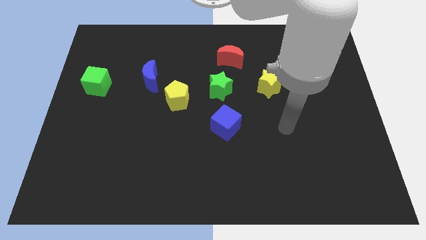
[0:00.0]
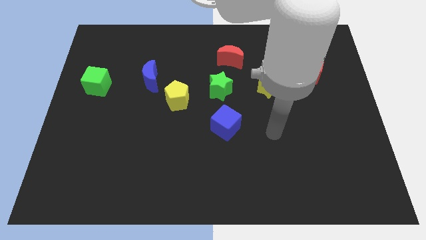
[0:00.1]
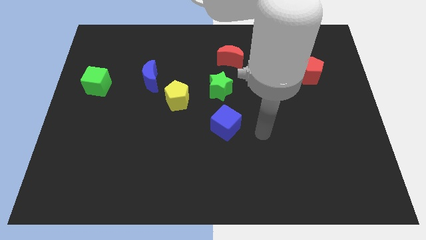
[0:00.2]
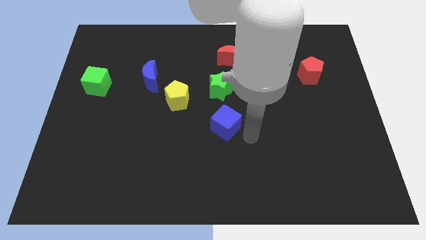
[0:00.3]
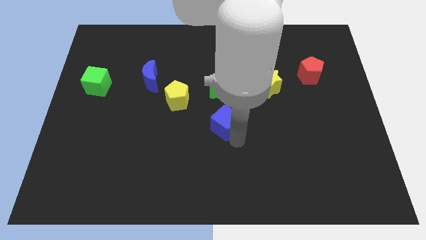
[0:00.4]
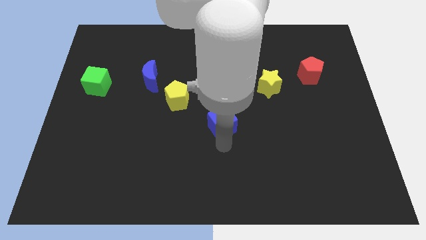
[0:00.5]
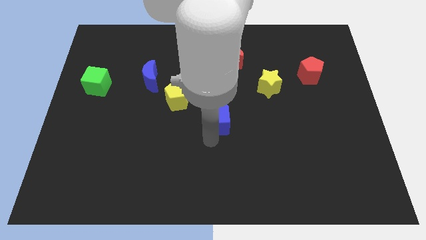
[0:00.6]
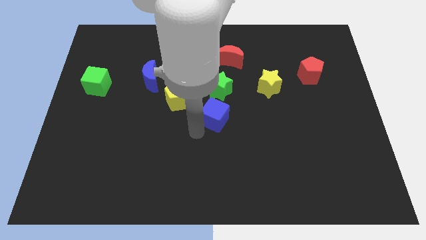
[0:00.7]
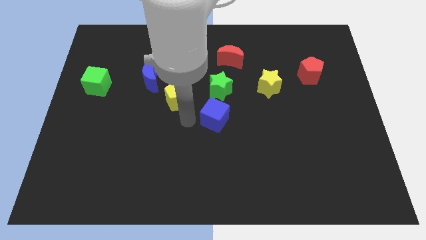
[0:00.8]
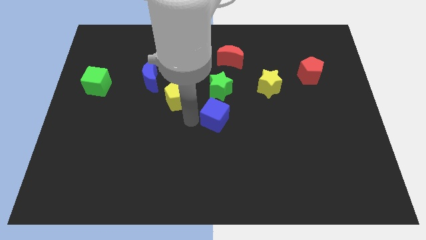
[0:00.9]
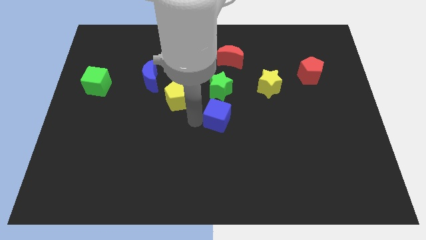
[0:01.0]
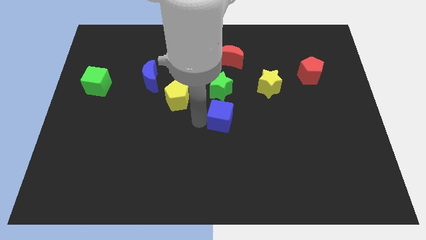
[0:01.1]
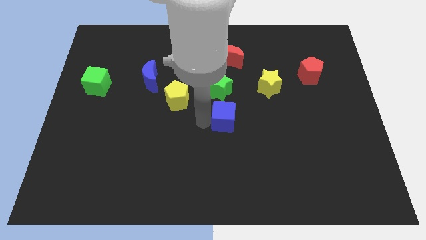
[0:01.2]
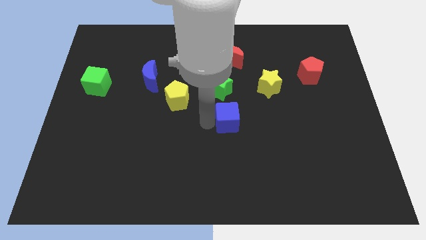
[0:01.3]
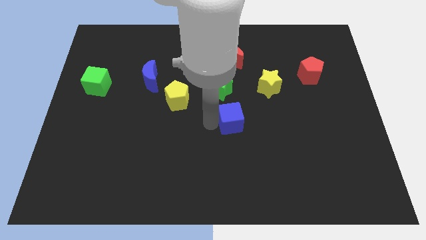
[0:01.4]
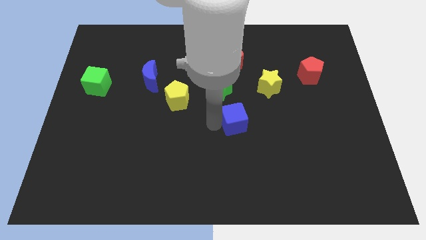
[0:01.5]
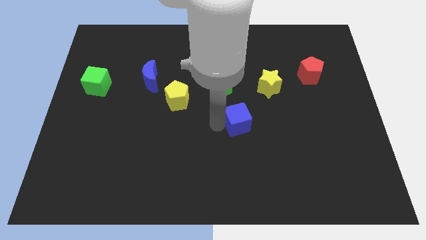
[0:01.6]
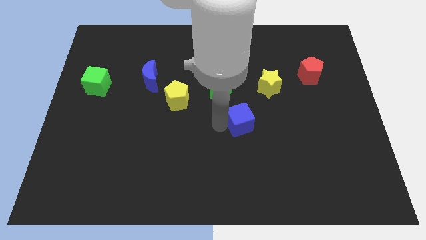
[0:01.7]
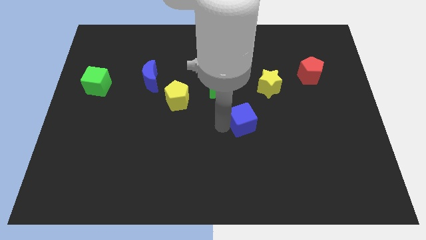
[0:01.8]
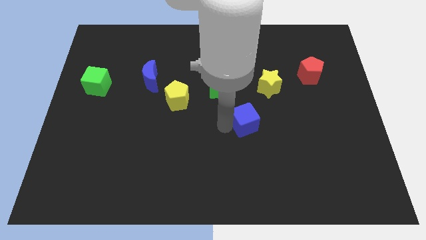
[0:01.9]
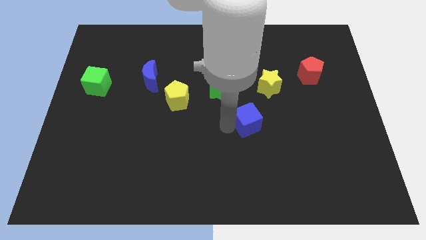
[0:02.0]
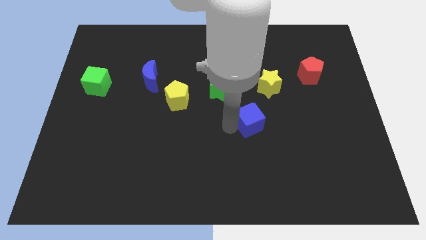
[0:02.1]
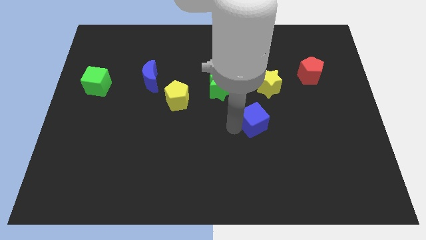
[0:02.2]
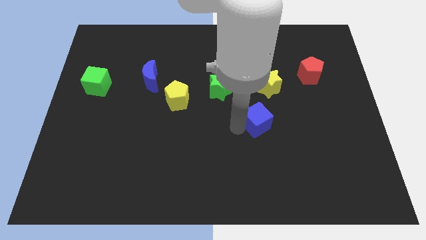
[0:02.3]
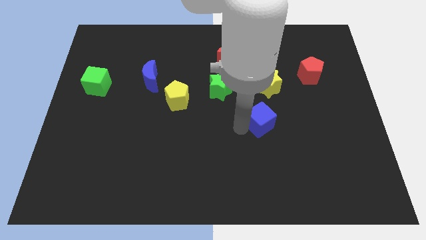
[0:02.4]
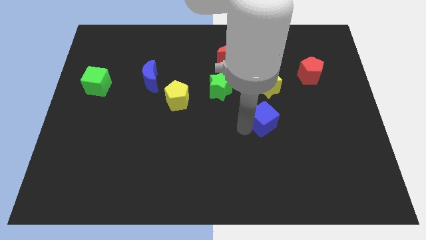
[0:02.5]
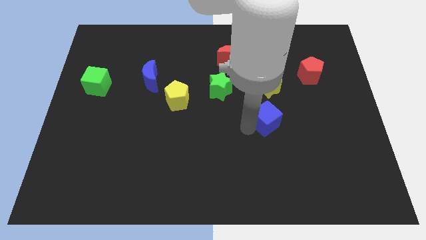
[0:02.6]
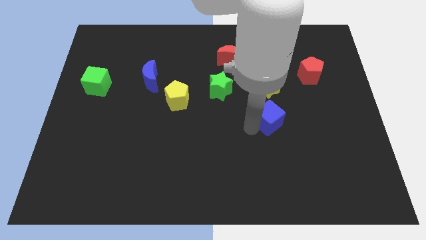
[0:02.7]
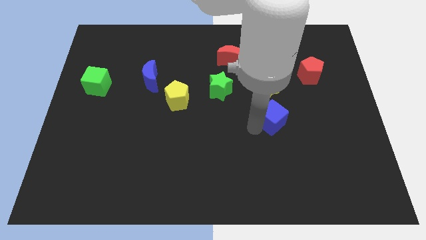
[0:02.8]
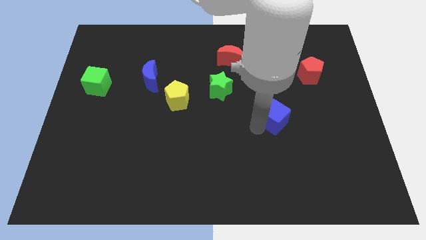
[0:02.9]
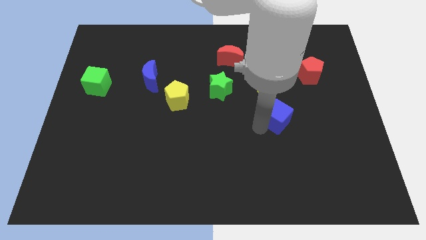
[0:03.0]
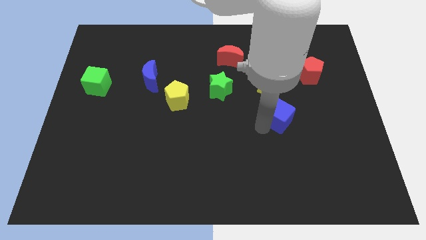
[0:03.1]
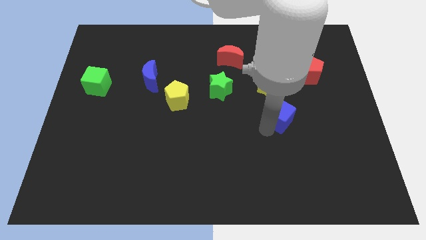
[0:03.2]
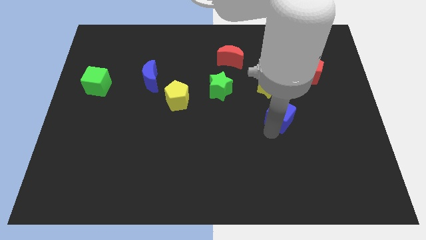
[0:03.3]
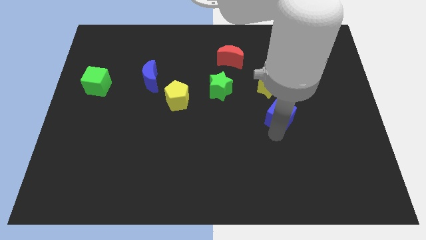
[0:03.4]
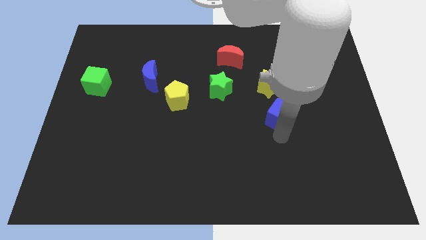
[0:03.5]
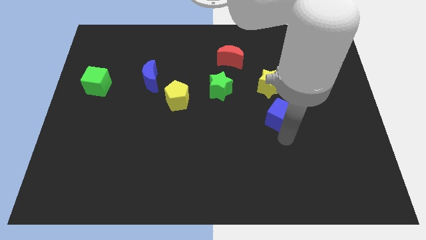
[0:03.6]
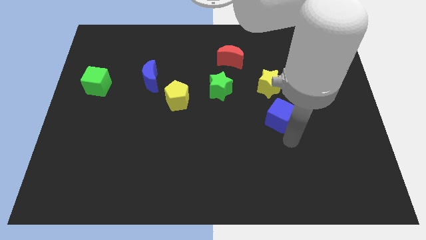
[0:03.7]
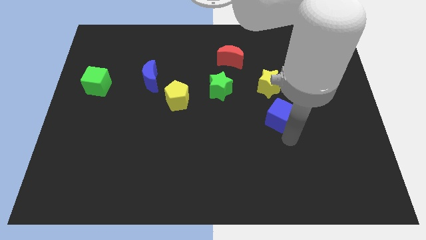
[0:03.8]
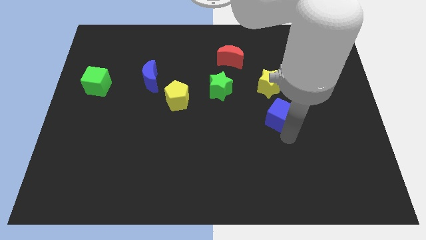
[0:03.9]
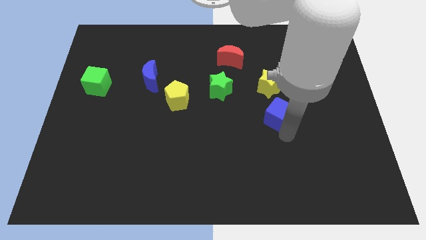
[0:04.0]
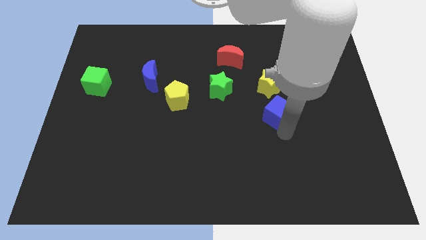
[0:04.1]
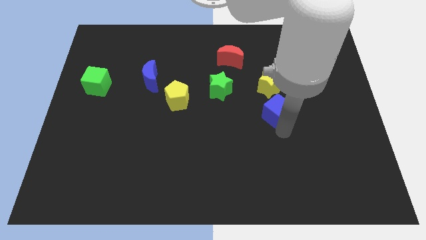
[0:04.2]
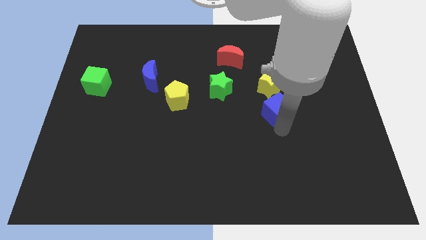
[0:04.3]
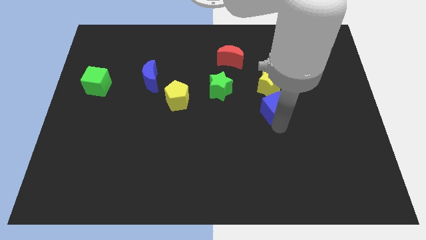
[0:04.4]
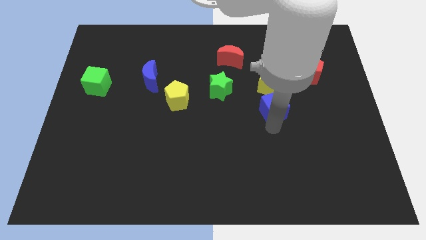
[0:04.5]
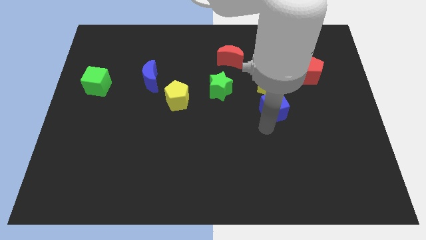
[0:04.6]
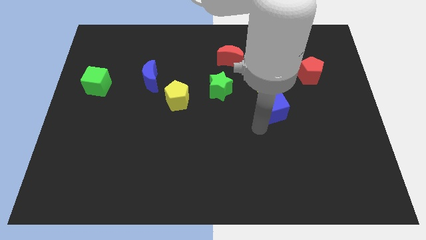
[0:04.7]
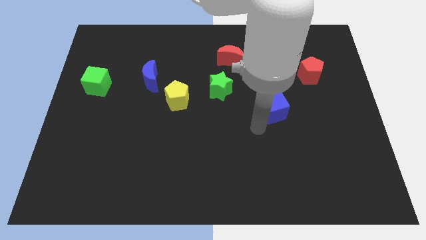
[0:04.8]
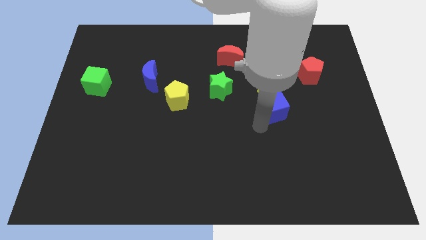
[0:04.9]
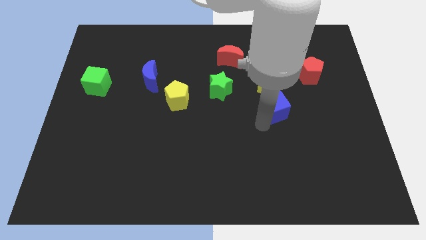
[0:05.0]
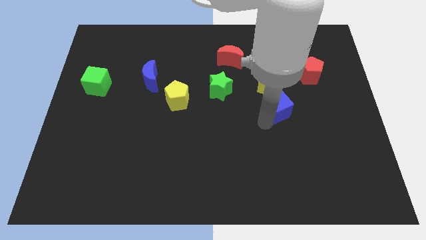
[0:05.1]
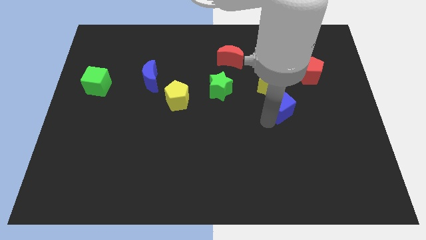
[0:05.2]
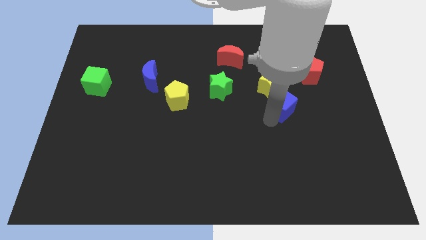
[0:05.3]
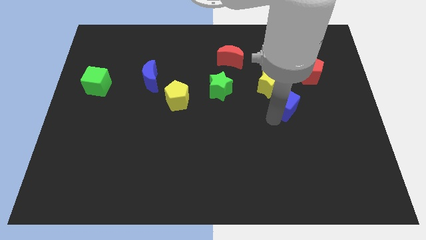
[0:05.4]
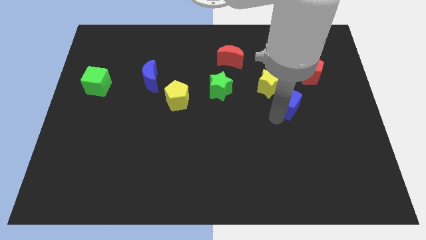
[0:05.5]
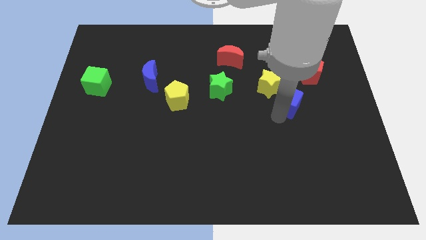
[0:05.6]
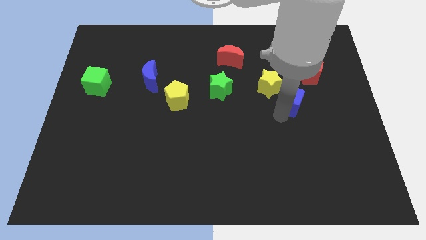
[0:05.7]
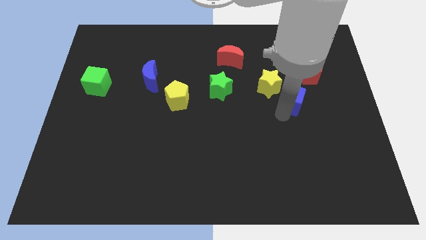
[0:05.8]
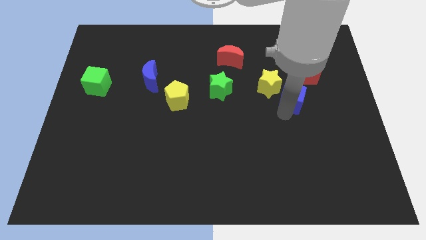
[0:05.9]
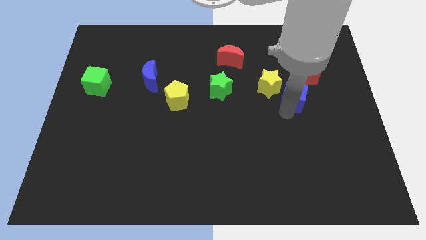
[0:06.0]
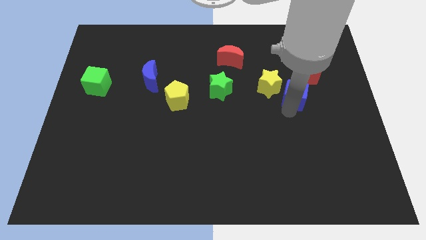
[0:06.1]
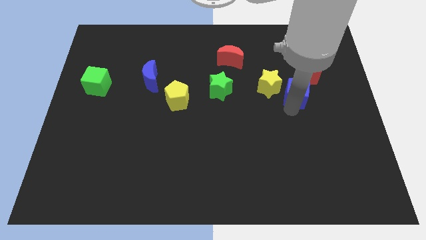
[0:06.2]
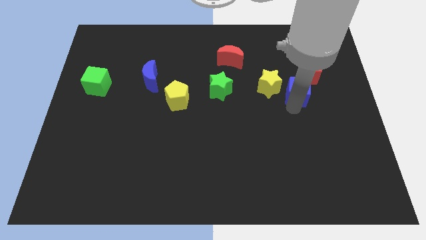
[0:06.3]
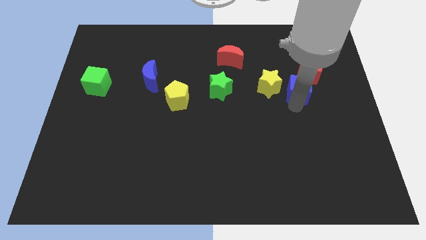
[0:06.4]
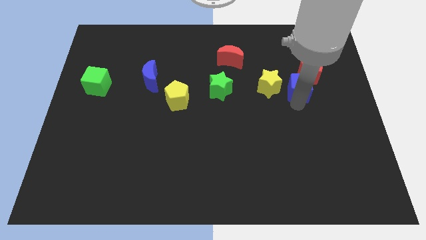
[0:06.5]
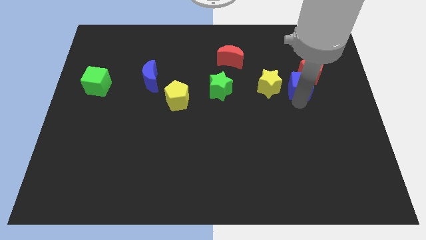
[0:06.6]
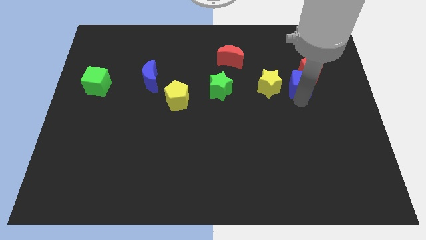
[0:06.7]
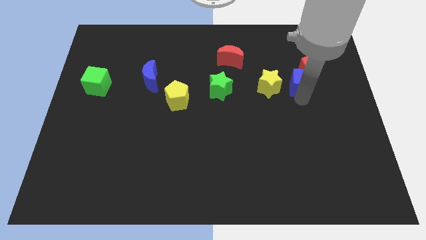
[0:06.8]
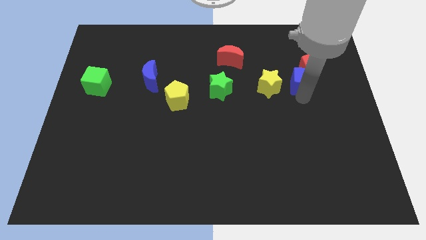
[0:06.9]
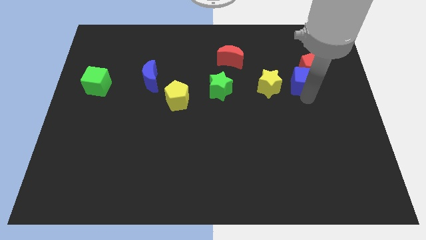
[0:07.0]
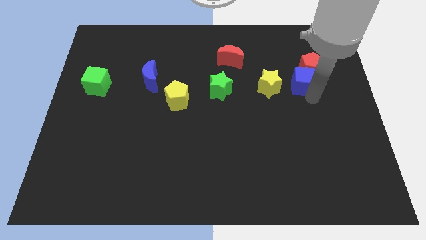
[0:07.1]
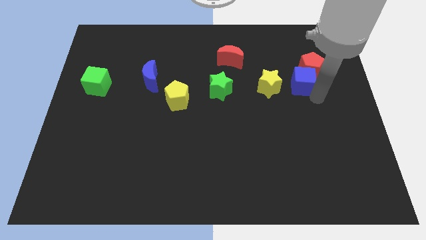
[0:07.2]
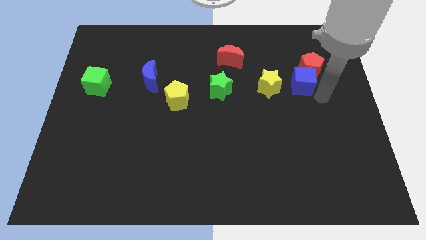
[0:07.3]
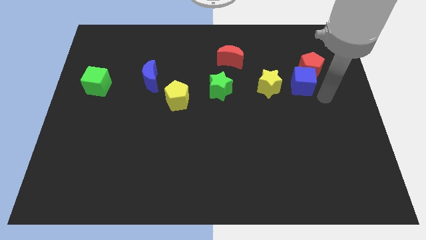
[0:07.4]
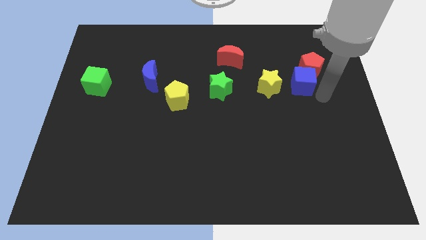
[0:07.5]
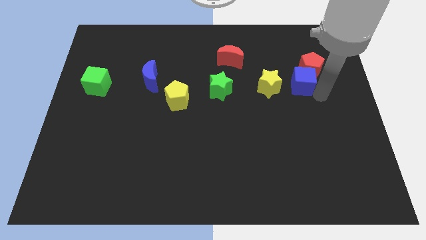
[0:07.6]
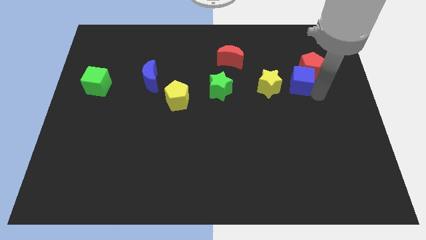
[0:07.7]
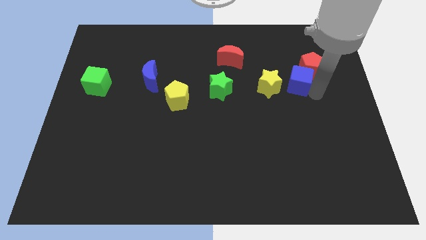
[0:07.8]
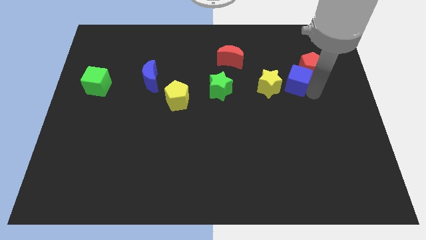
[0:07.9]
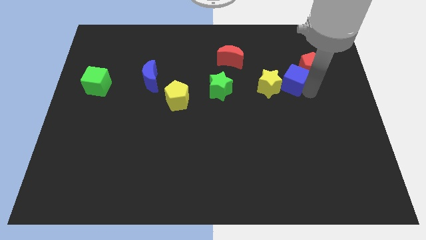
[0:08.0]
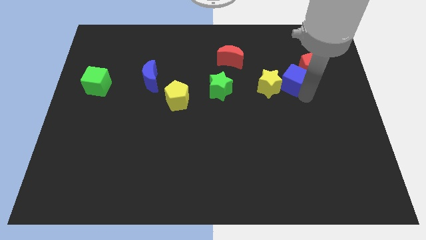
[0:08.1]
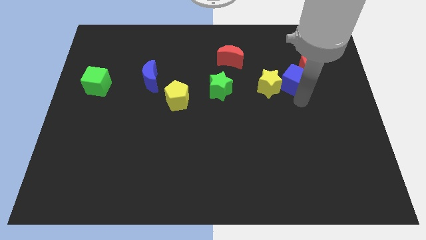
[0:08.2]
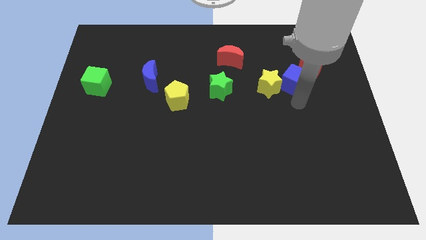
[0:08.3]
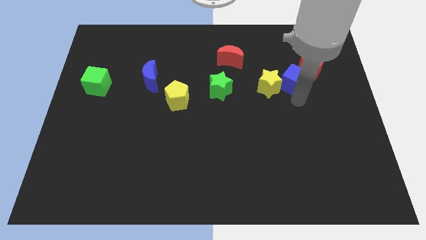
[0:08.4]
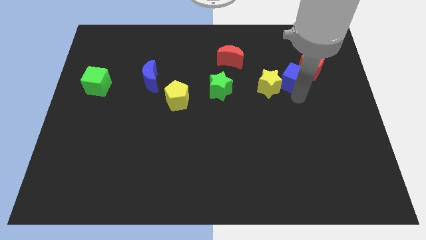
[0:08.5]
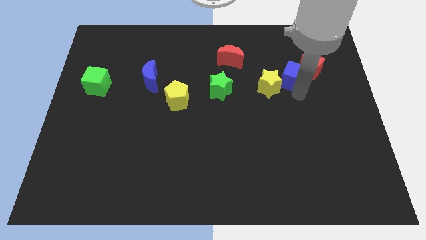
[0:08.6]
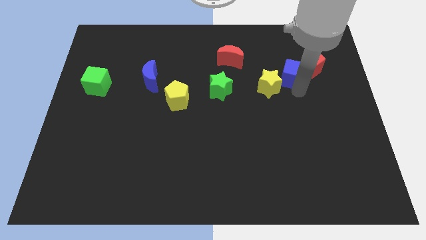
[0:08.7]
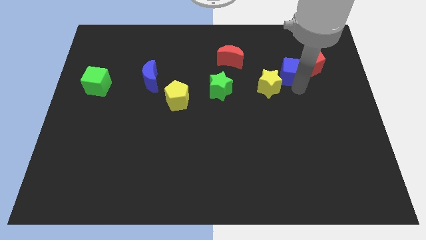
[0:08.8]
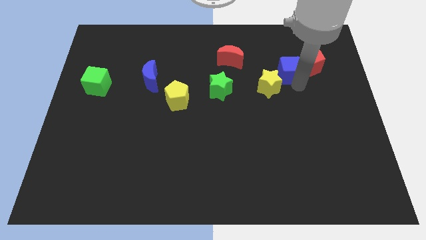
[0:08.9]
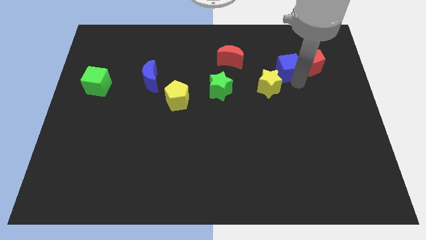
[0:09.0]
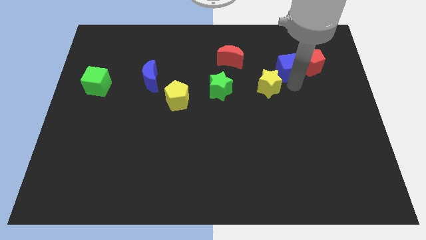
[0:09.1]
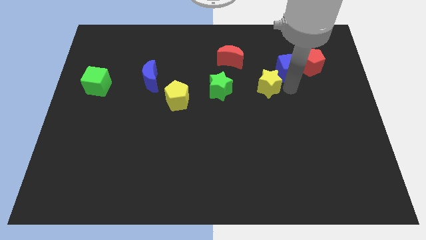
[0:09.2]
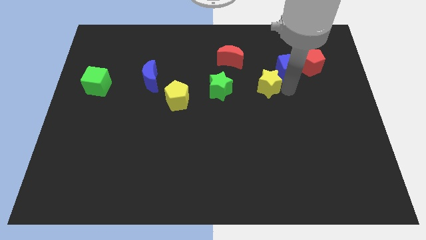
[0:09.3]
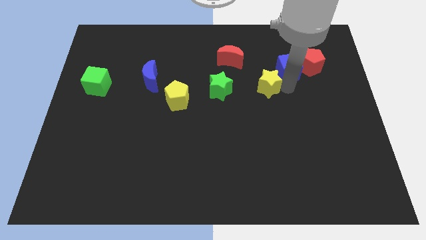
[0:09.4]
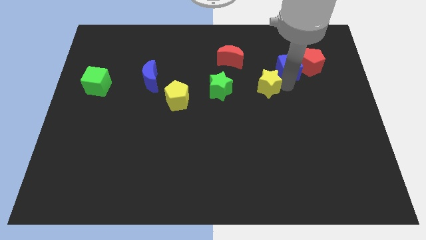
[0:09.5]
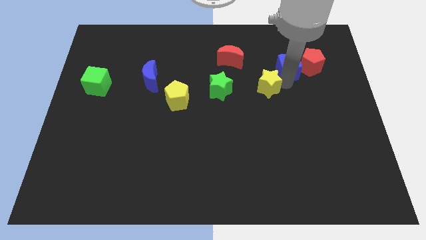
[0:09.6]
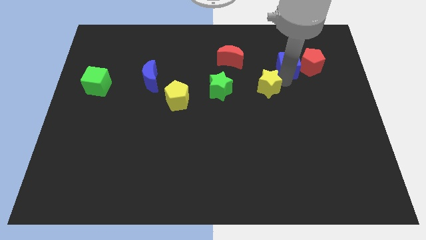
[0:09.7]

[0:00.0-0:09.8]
push the blue cube diagonally up and to the left of the red pentagon
